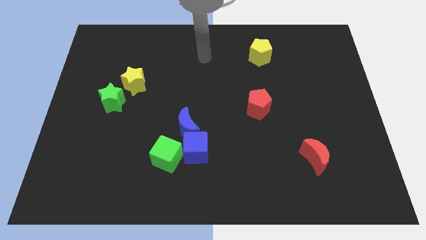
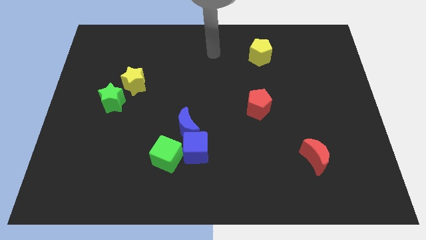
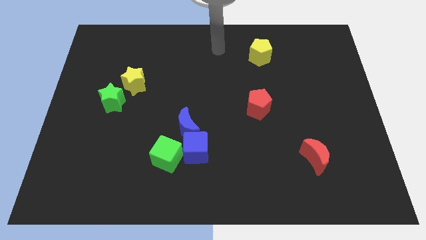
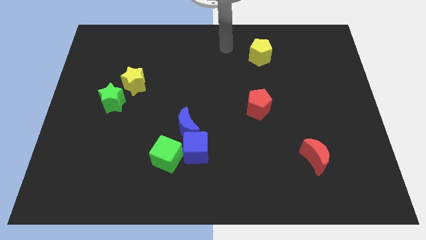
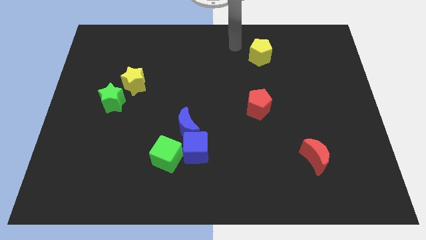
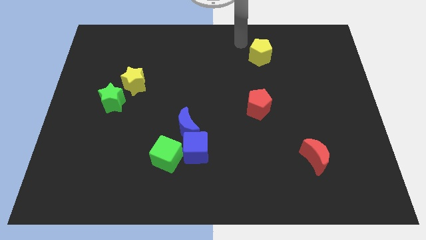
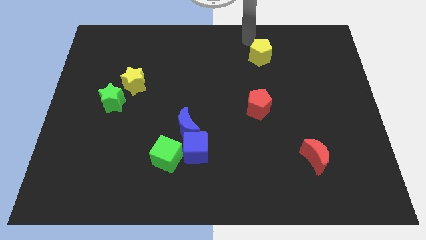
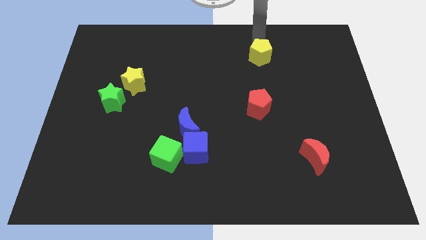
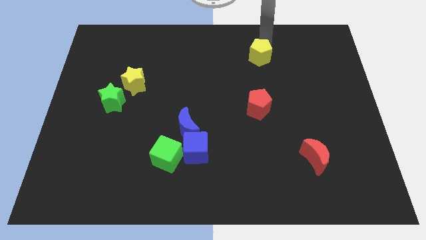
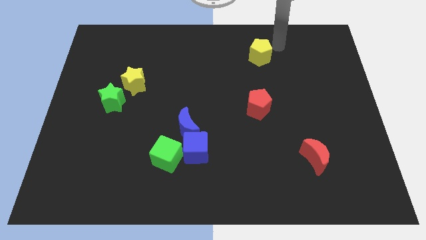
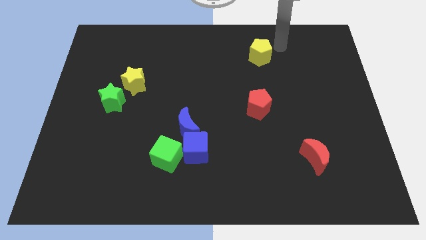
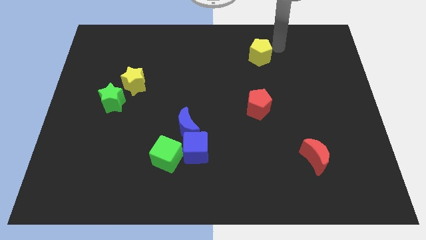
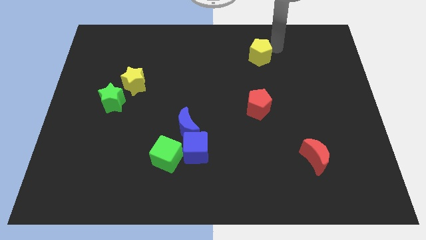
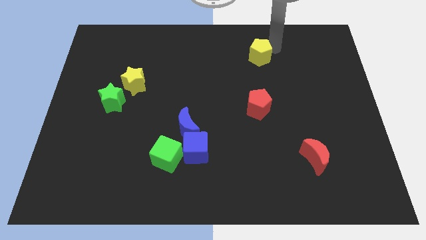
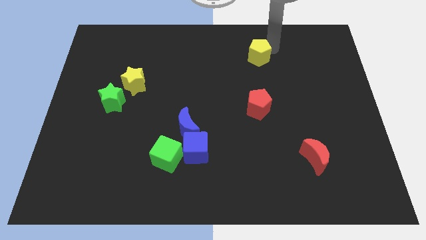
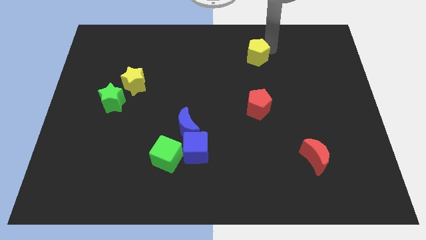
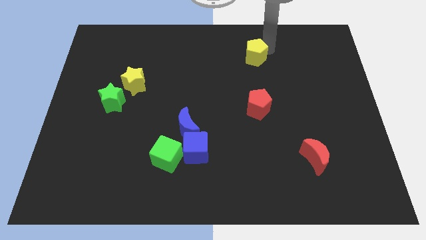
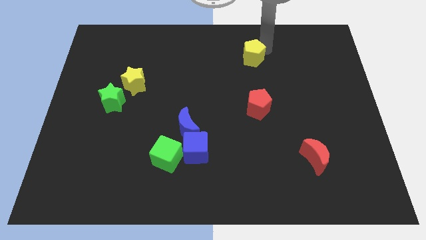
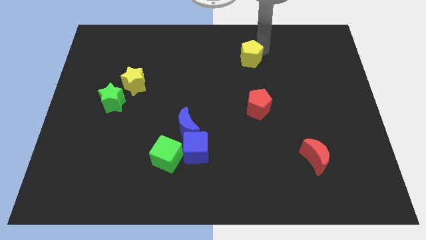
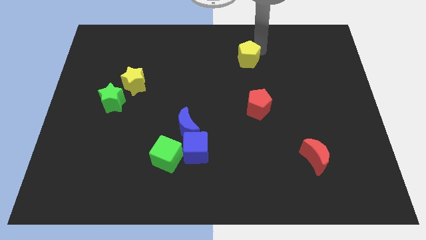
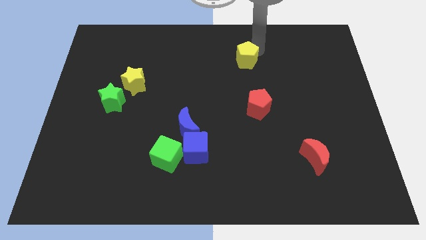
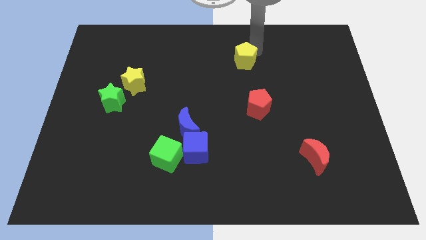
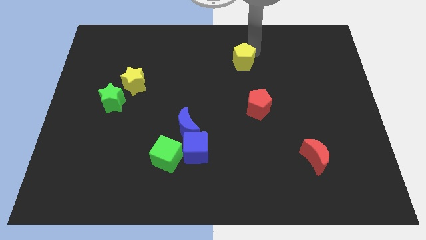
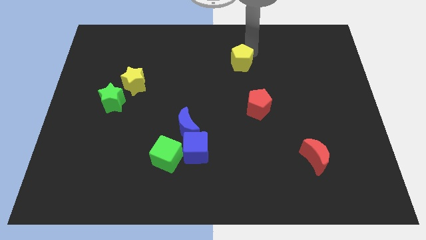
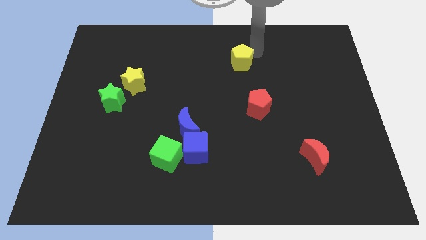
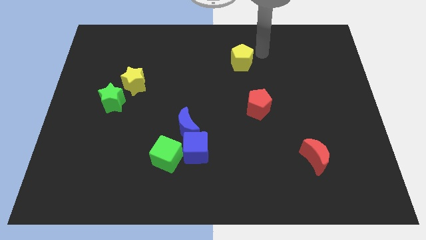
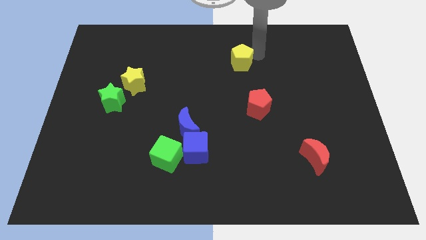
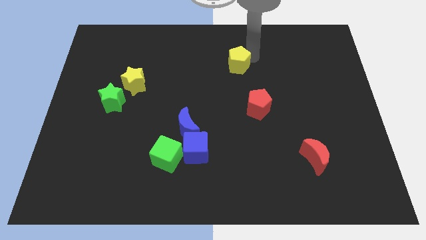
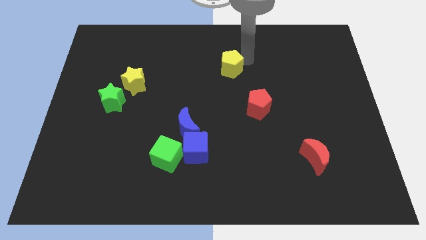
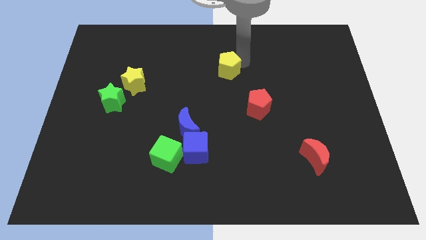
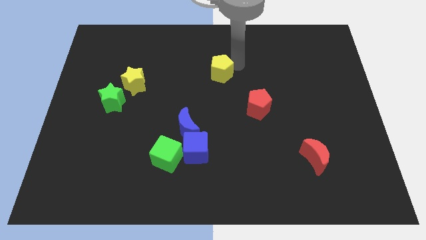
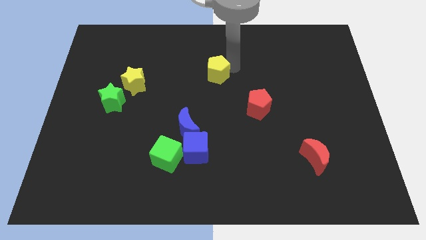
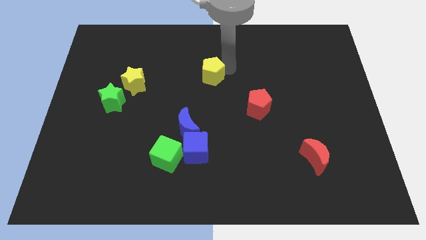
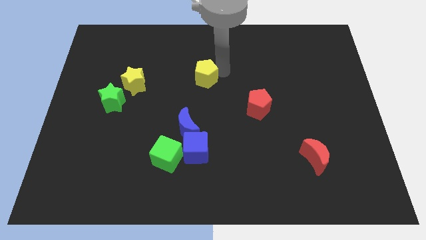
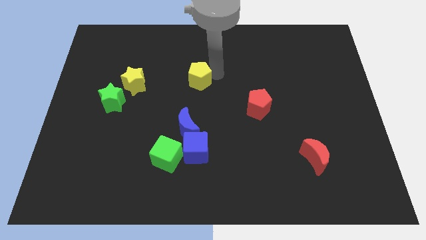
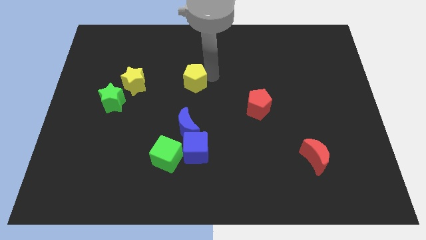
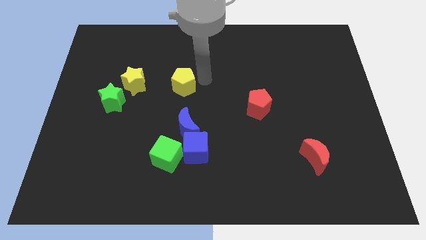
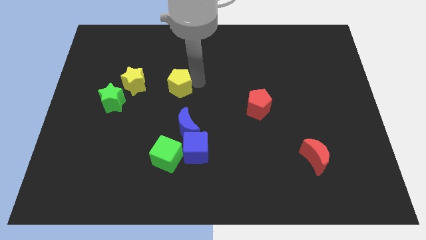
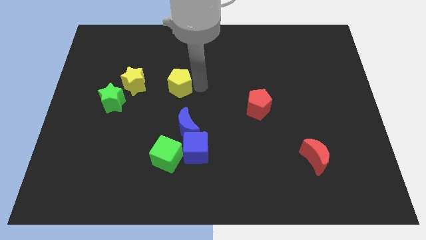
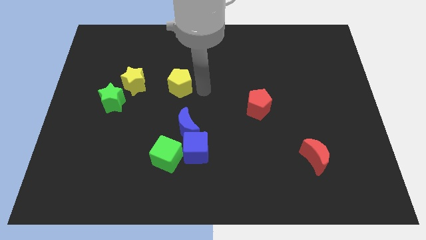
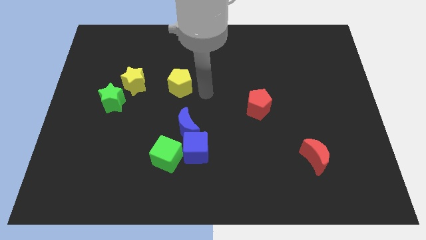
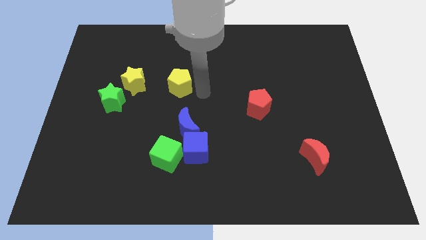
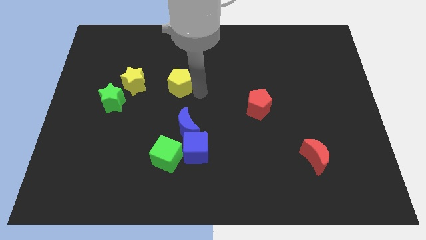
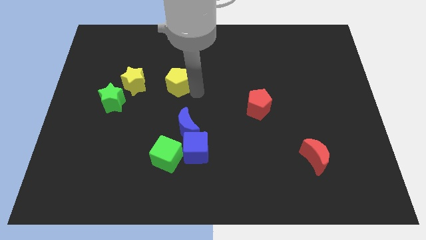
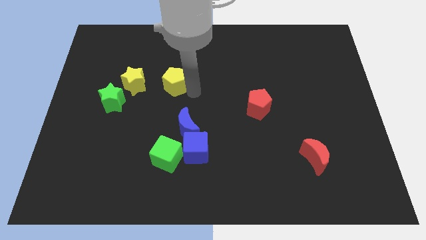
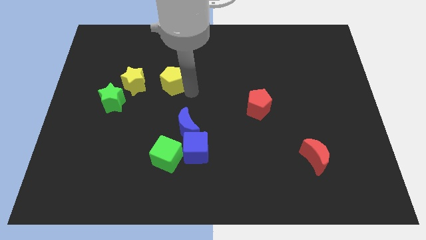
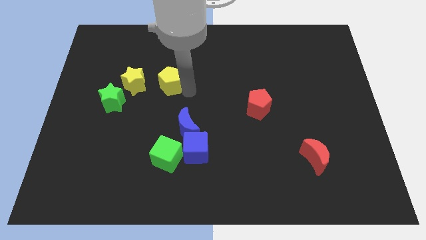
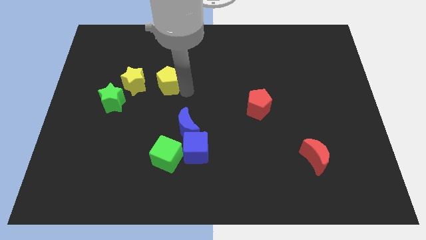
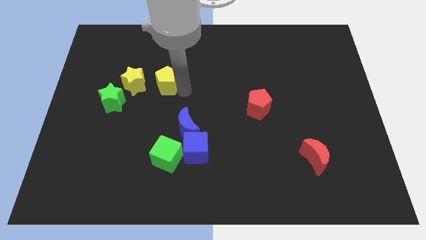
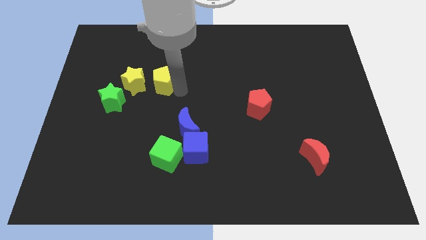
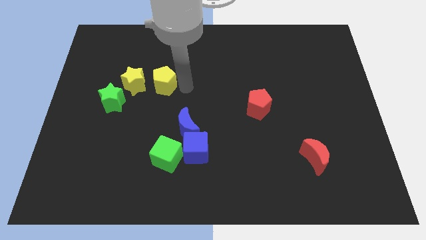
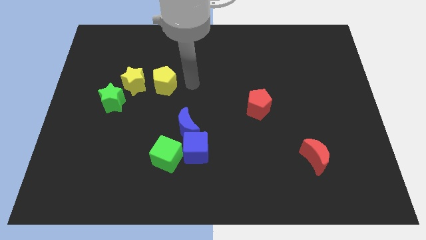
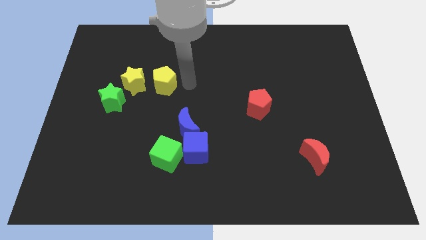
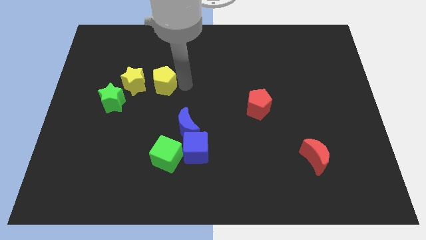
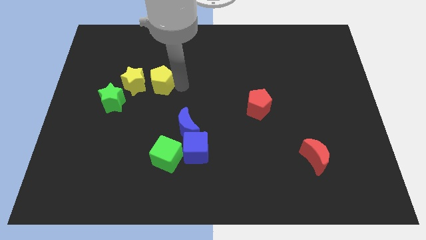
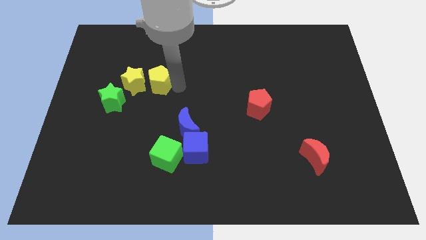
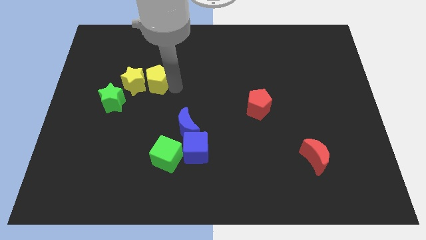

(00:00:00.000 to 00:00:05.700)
push the yellow pentagon close to the yellow star

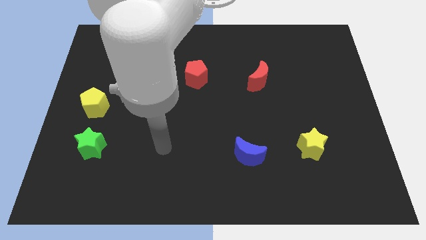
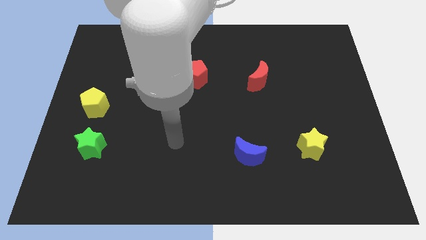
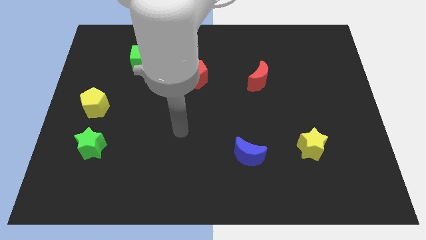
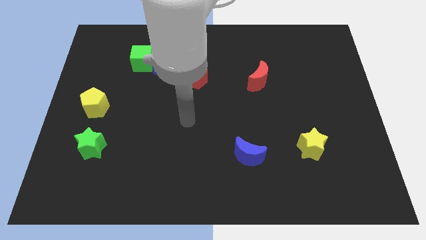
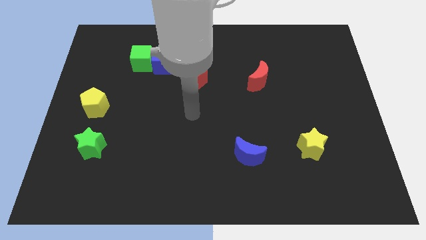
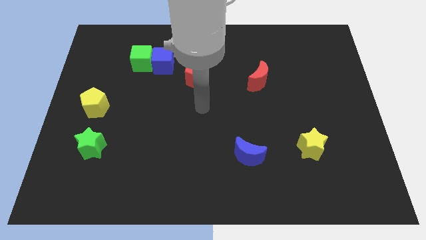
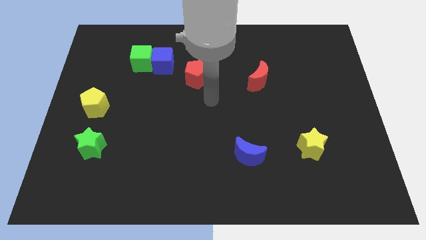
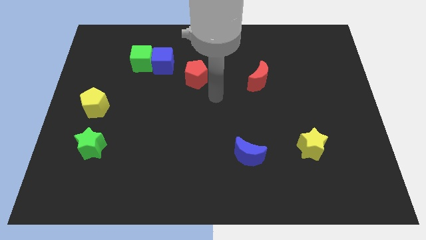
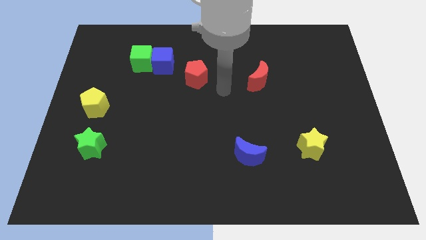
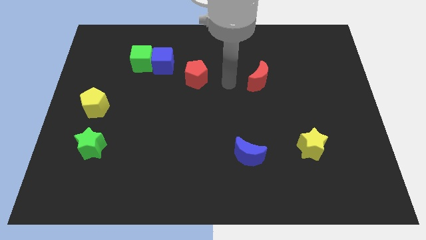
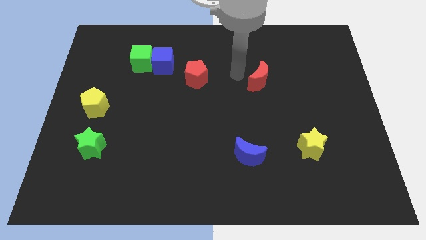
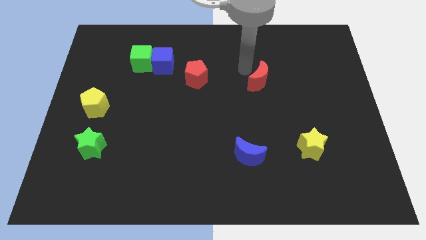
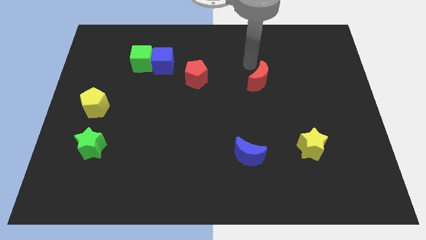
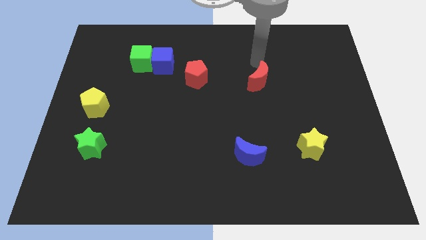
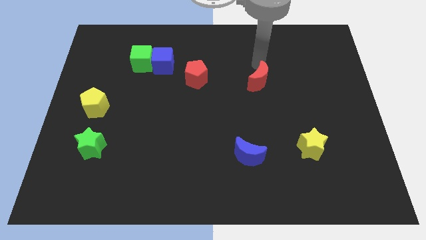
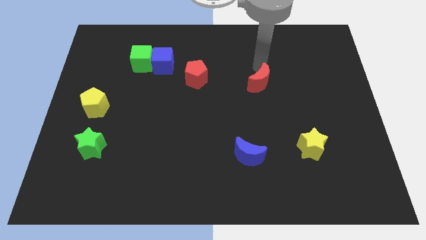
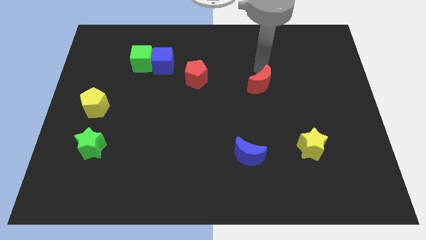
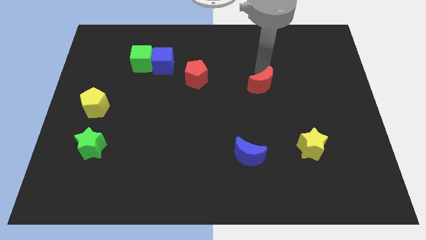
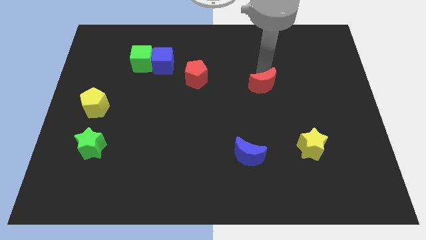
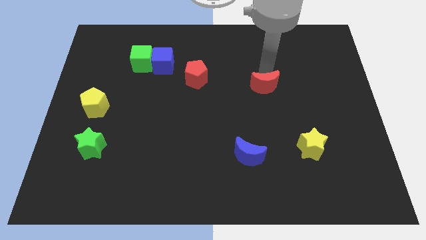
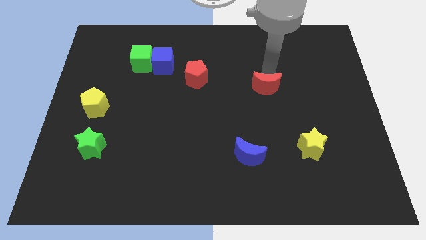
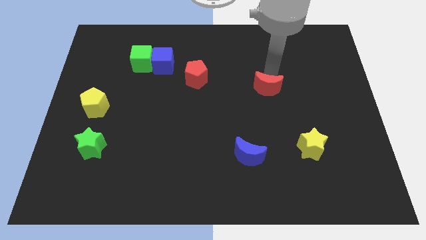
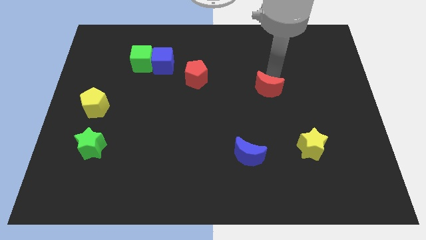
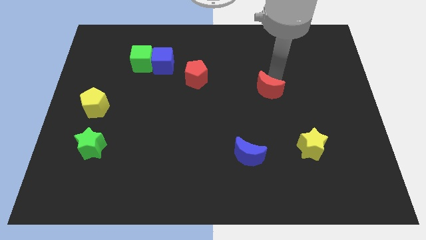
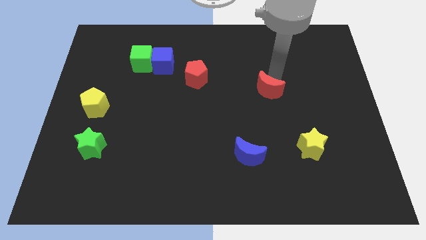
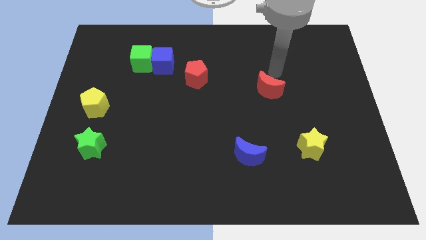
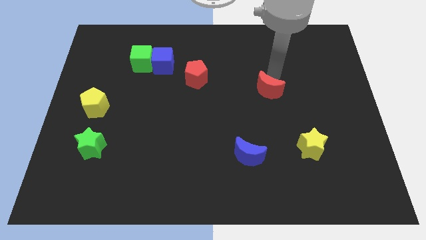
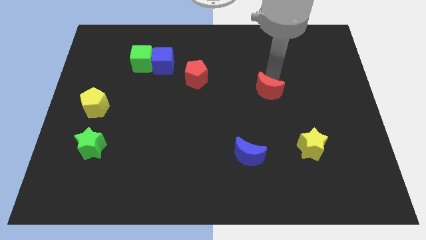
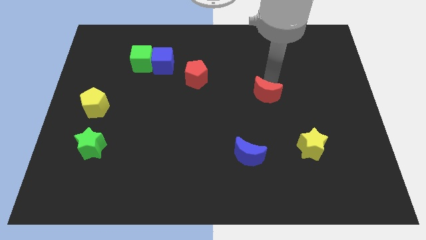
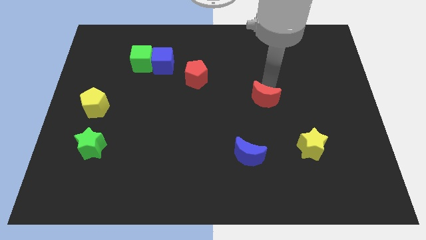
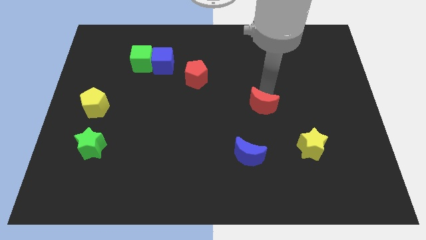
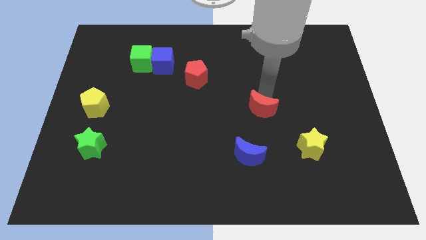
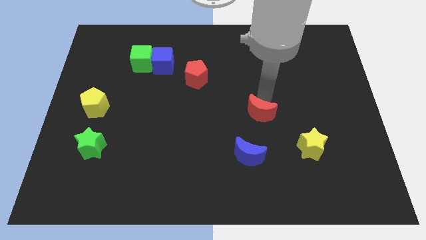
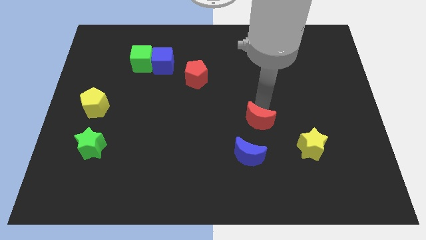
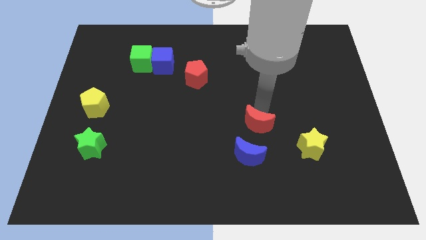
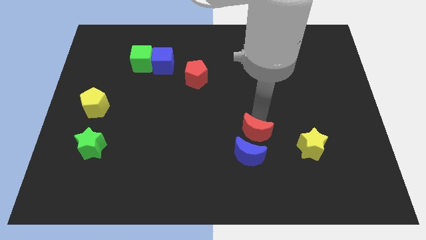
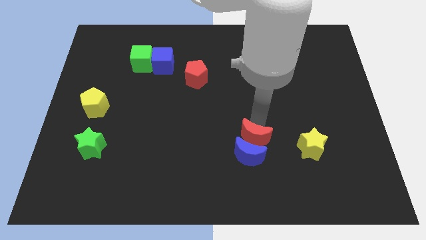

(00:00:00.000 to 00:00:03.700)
put the red moon towards the blue moon
